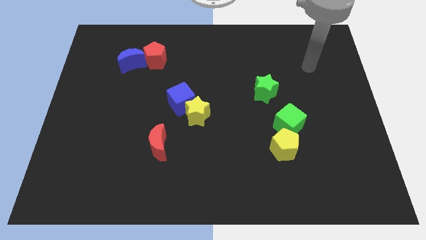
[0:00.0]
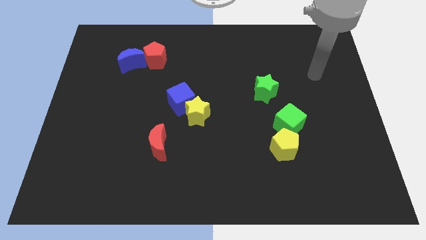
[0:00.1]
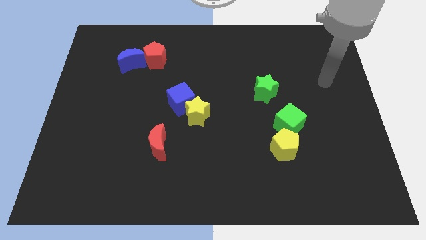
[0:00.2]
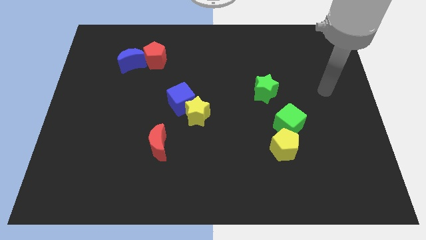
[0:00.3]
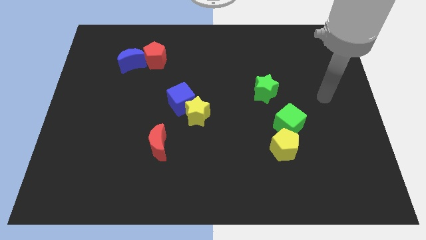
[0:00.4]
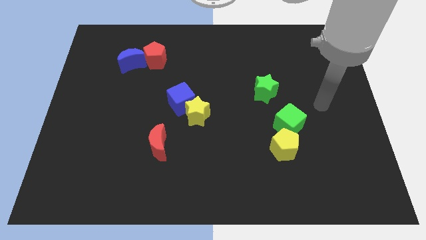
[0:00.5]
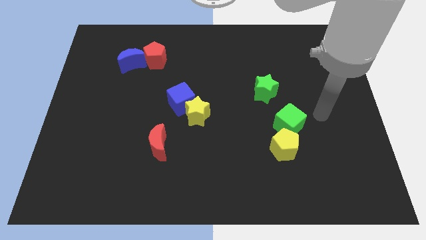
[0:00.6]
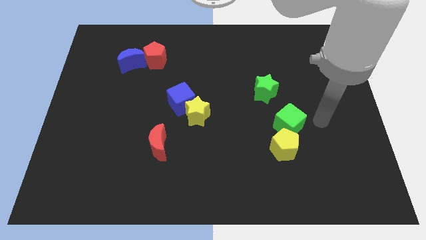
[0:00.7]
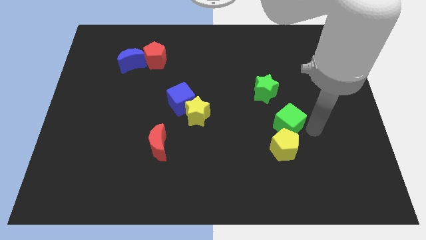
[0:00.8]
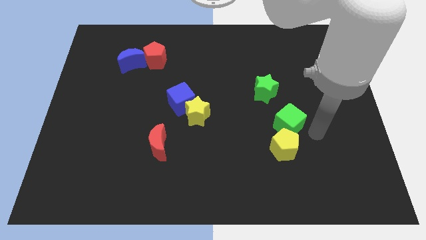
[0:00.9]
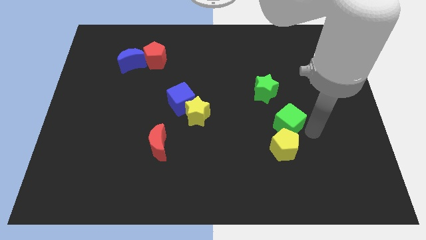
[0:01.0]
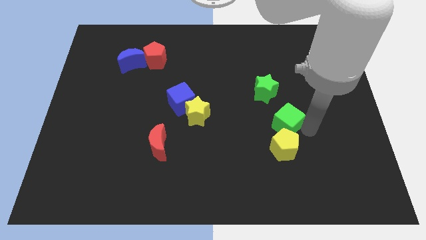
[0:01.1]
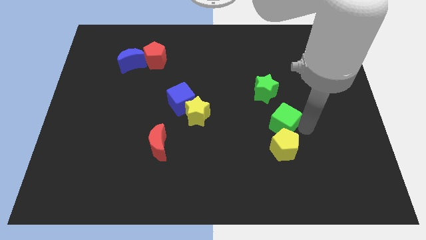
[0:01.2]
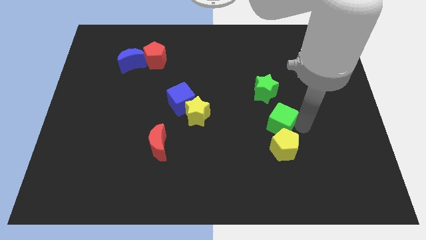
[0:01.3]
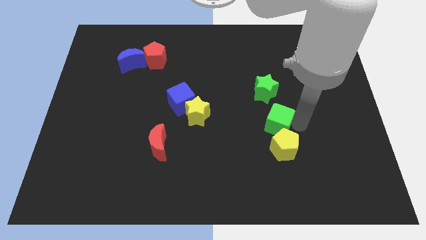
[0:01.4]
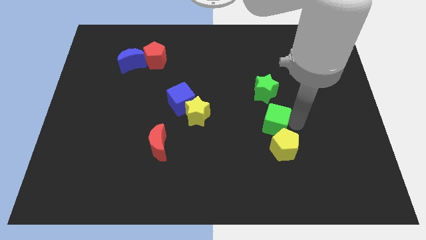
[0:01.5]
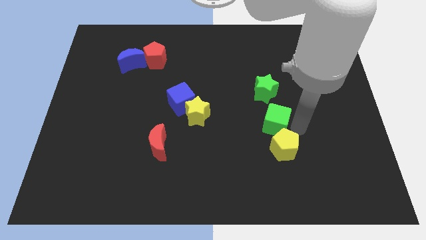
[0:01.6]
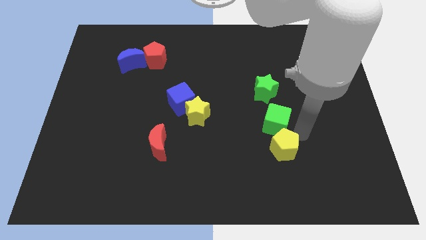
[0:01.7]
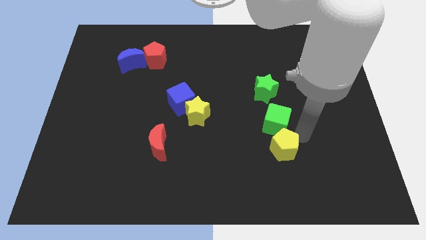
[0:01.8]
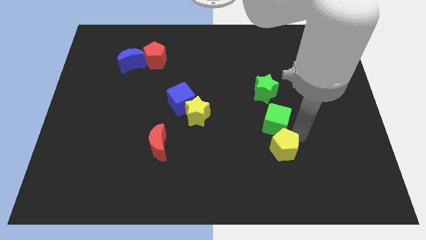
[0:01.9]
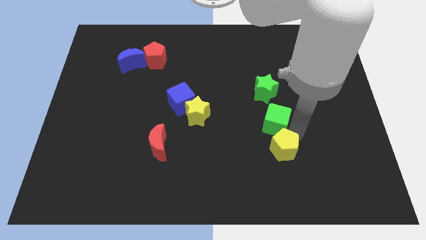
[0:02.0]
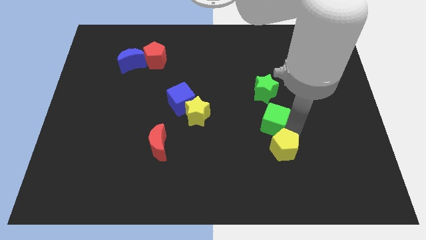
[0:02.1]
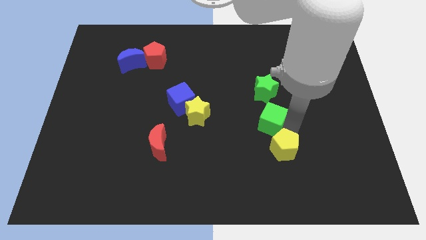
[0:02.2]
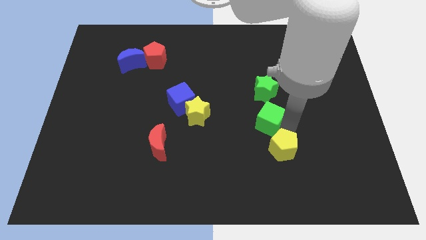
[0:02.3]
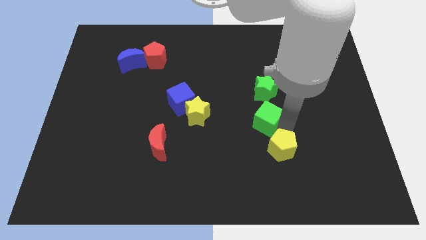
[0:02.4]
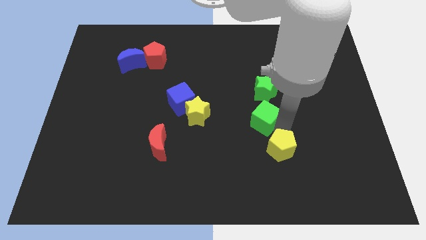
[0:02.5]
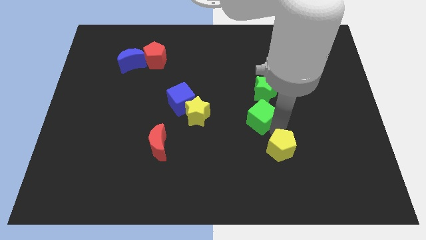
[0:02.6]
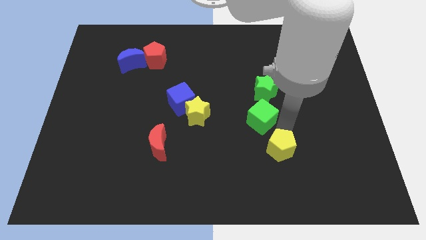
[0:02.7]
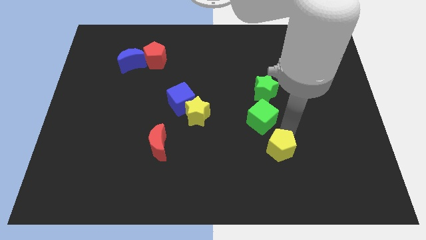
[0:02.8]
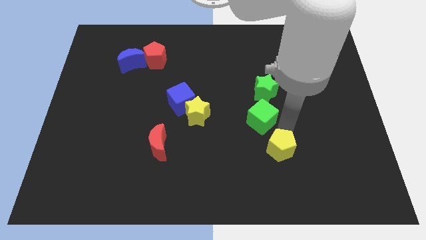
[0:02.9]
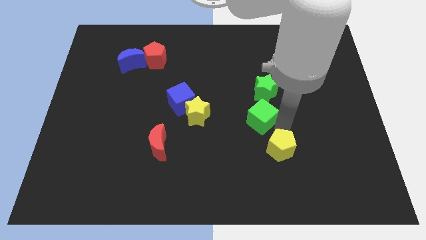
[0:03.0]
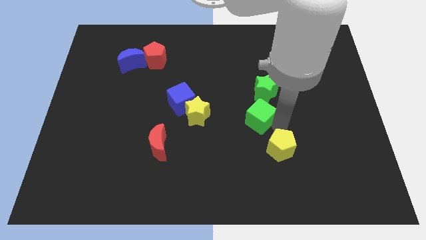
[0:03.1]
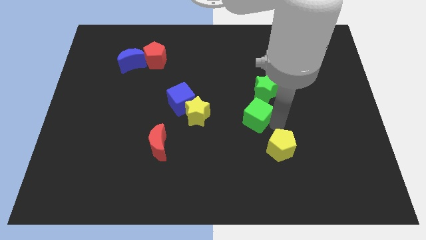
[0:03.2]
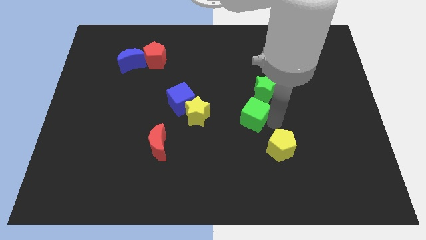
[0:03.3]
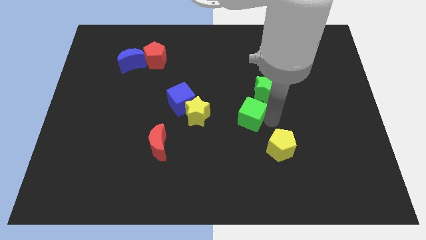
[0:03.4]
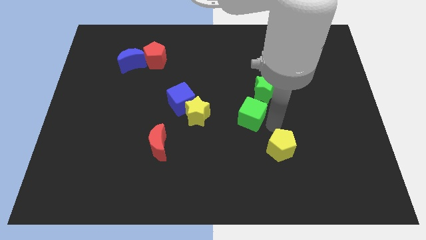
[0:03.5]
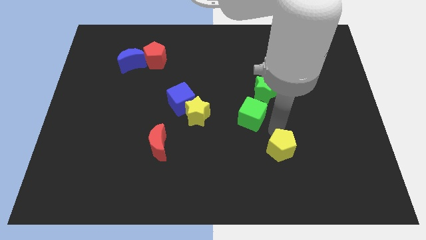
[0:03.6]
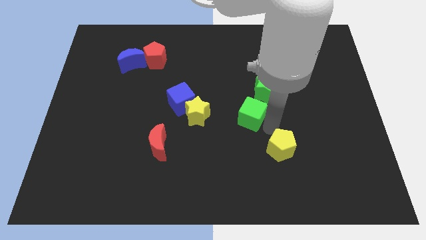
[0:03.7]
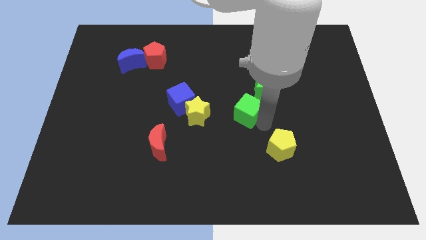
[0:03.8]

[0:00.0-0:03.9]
slide the green cube a little diagonally upwards and to the left

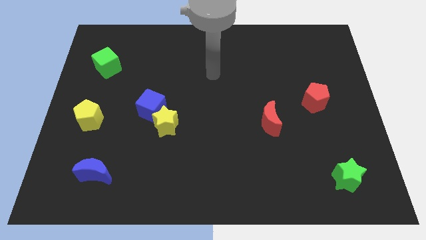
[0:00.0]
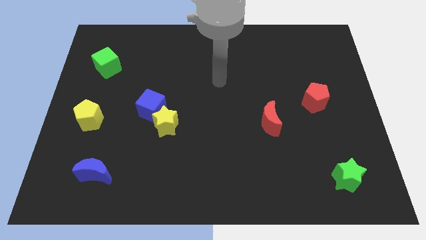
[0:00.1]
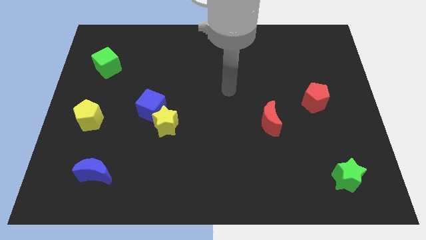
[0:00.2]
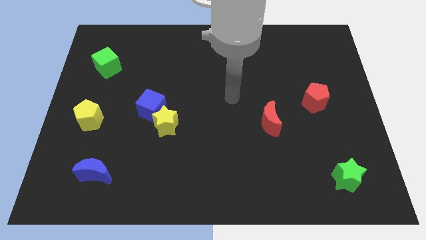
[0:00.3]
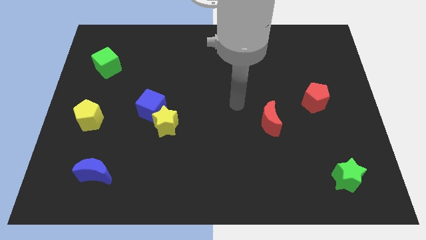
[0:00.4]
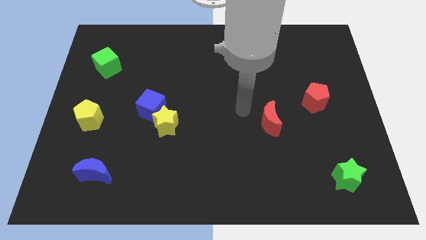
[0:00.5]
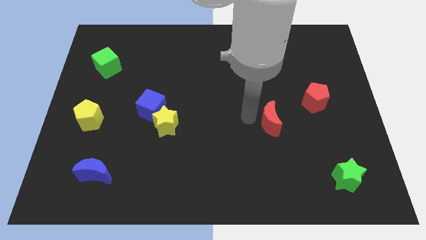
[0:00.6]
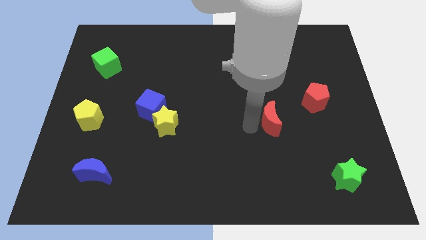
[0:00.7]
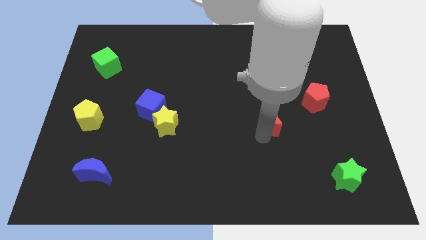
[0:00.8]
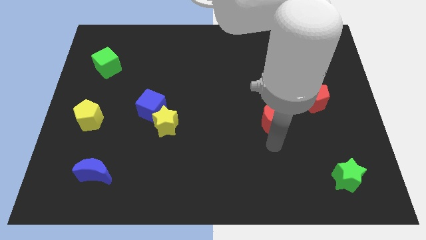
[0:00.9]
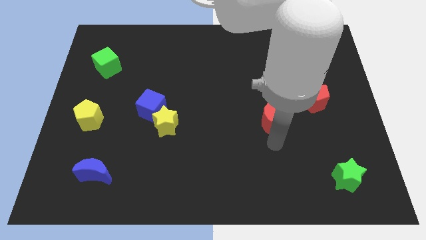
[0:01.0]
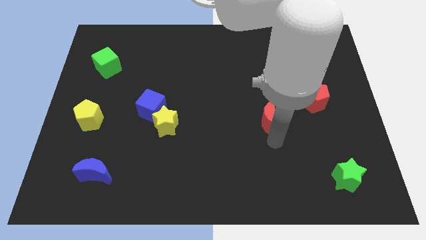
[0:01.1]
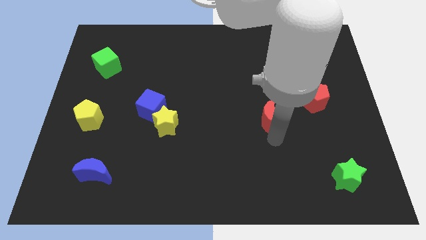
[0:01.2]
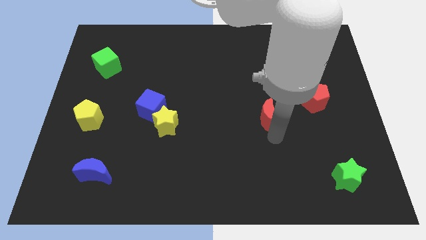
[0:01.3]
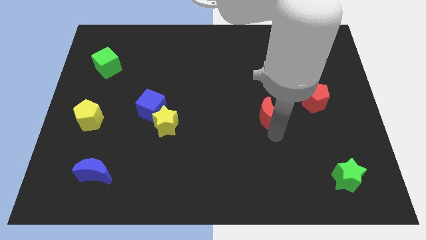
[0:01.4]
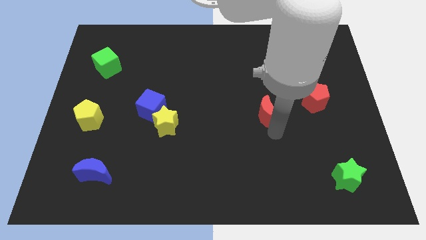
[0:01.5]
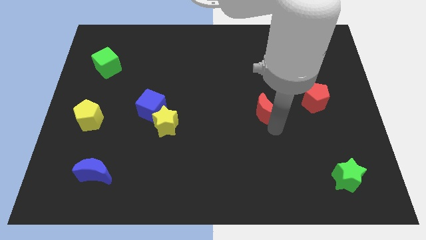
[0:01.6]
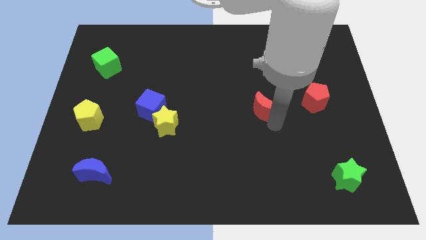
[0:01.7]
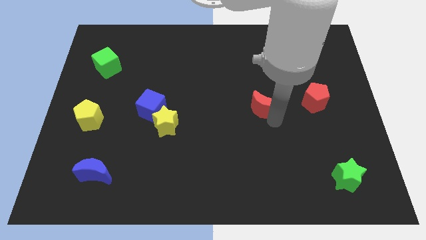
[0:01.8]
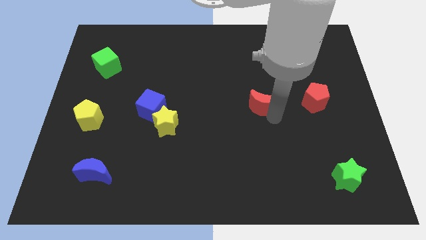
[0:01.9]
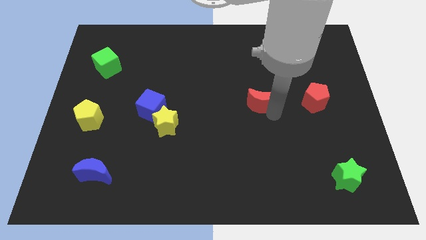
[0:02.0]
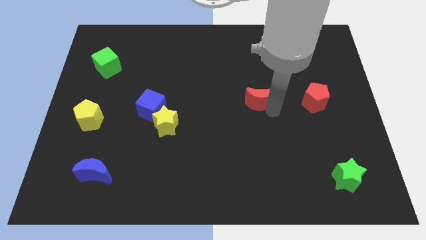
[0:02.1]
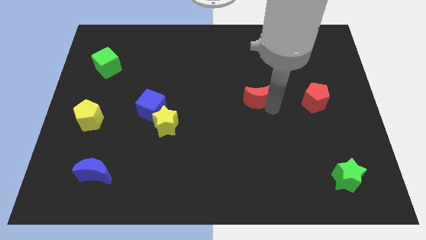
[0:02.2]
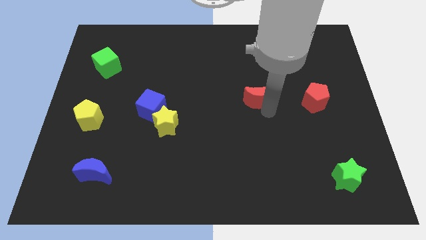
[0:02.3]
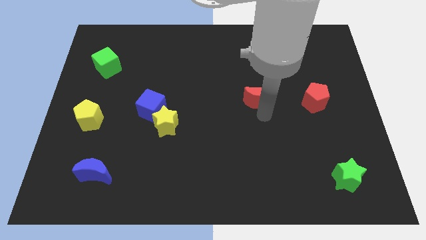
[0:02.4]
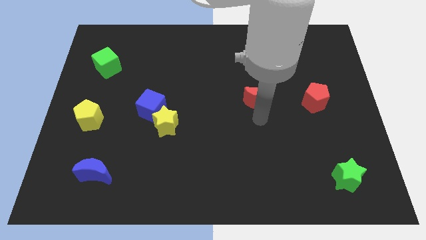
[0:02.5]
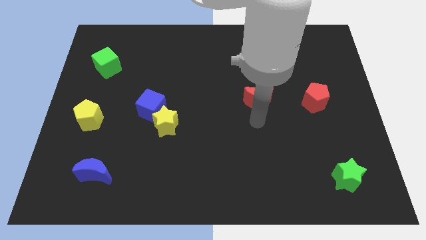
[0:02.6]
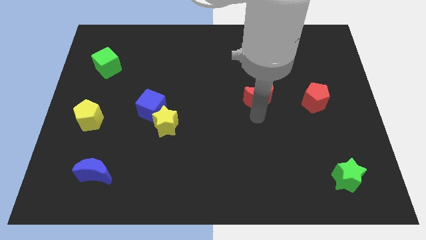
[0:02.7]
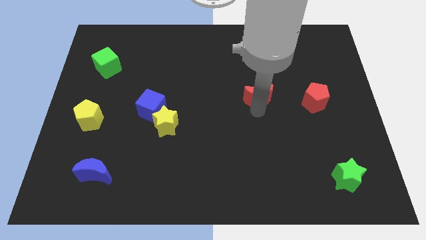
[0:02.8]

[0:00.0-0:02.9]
push the red moon up somewhat

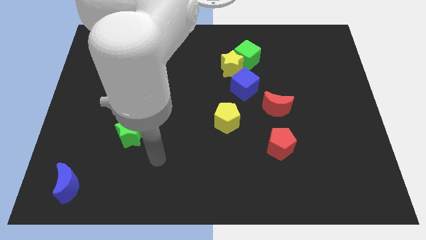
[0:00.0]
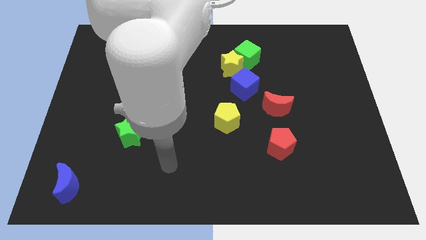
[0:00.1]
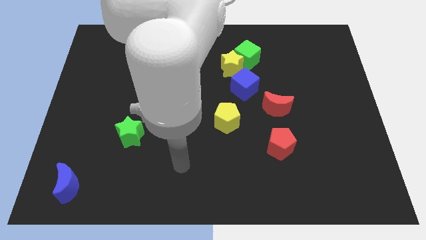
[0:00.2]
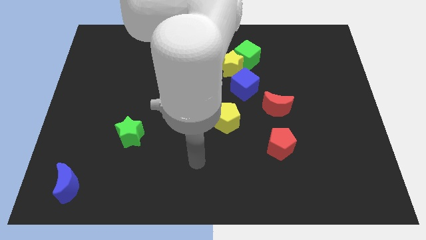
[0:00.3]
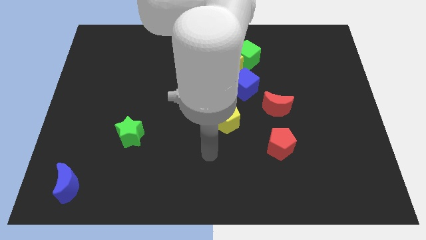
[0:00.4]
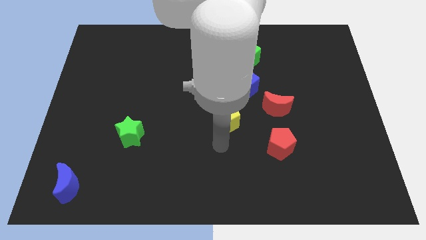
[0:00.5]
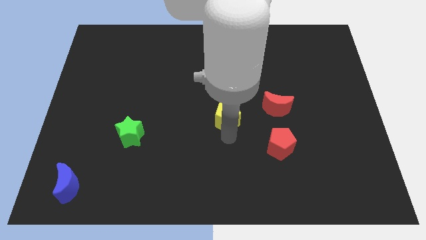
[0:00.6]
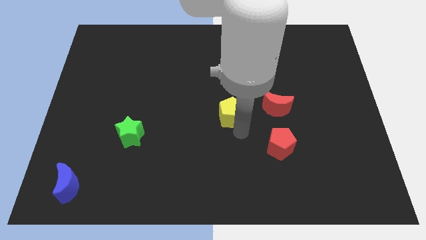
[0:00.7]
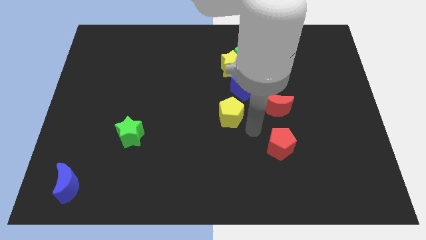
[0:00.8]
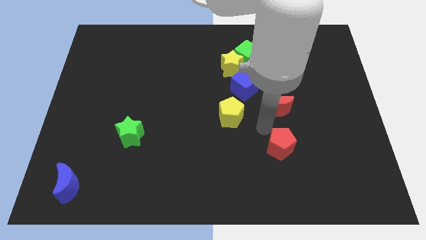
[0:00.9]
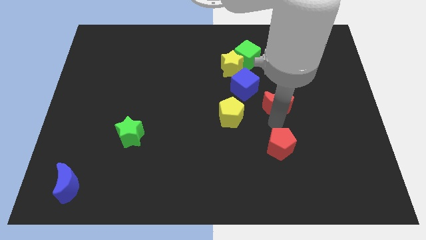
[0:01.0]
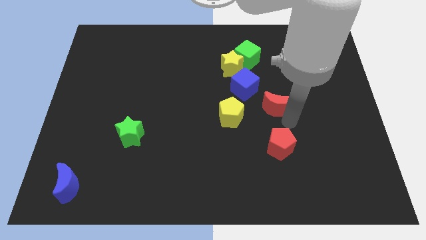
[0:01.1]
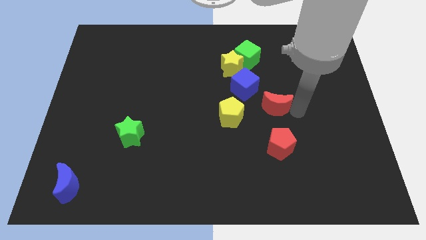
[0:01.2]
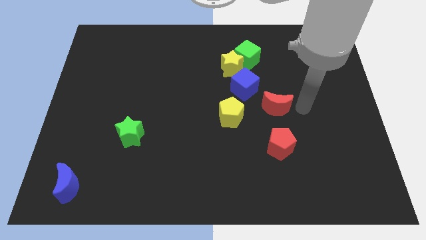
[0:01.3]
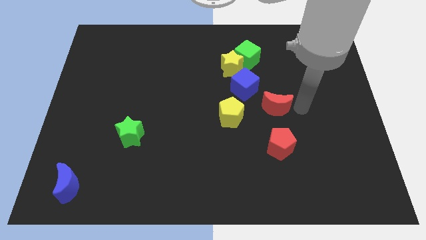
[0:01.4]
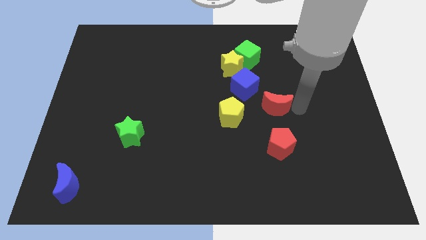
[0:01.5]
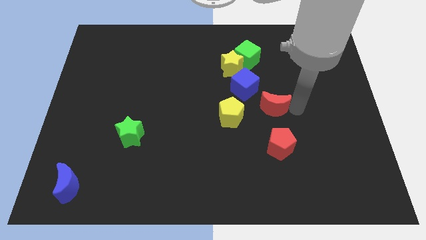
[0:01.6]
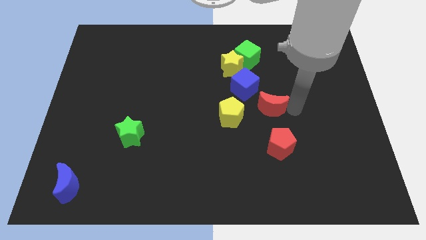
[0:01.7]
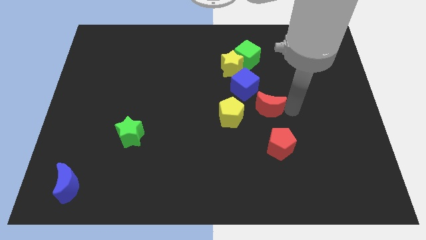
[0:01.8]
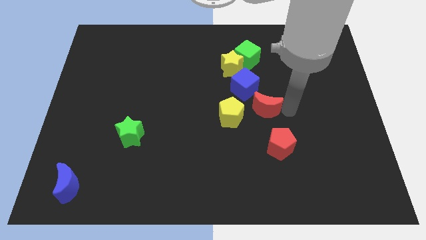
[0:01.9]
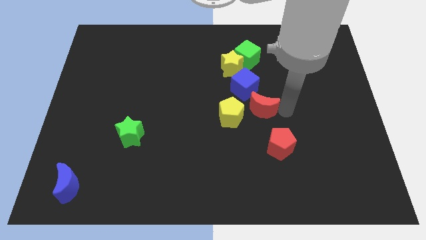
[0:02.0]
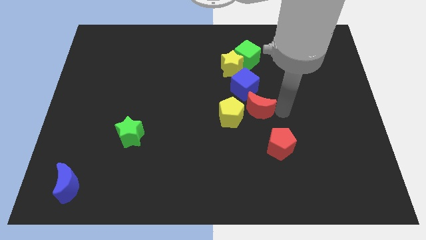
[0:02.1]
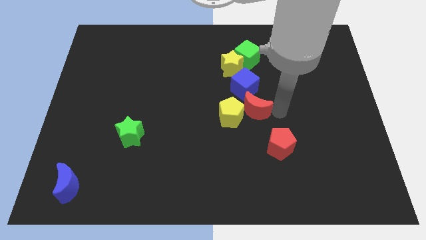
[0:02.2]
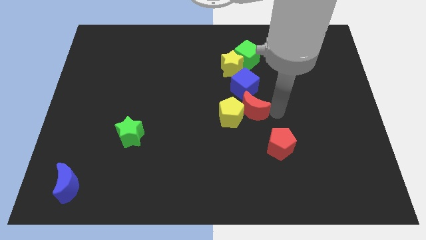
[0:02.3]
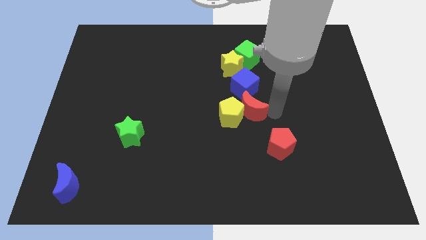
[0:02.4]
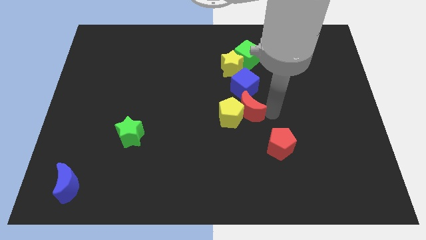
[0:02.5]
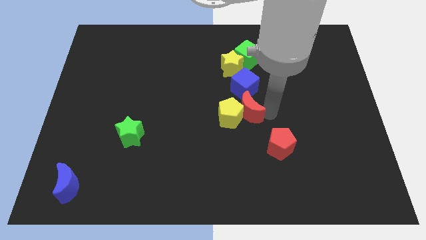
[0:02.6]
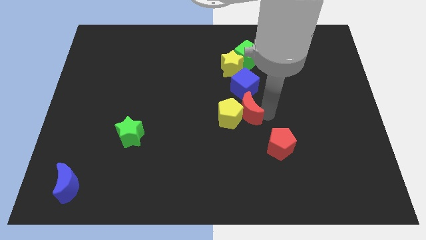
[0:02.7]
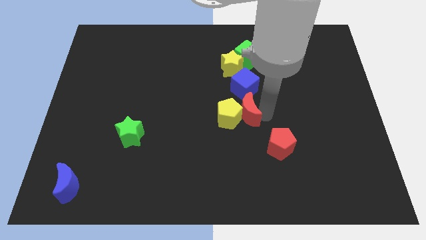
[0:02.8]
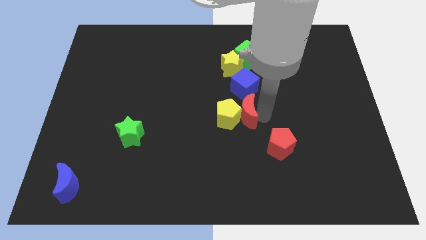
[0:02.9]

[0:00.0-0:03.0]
slightly slide the red moon left
